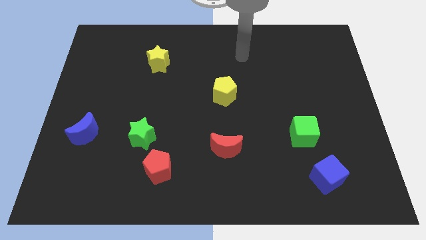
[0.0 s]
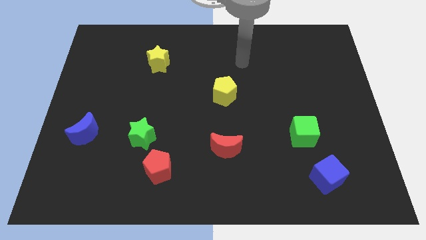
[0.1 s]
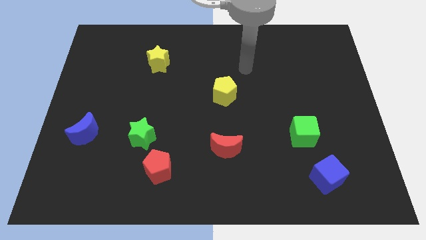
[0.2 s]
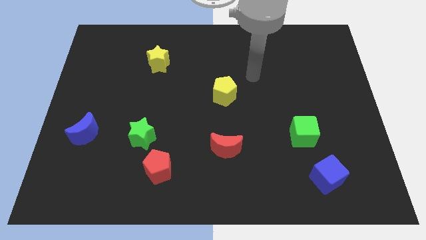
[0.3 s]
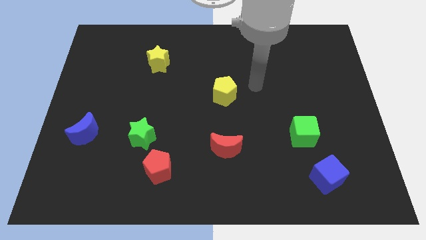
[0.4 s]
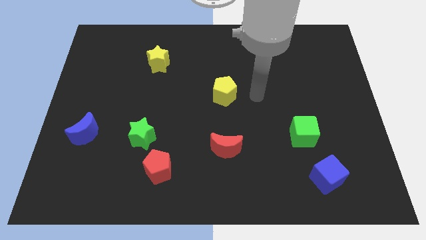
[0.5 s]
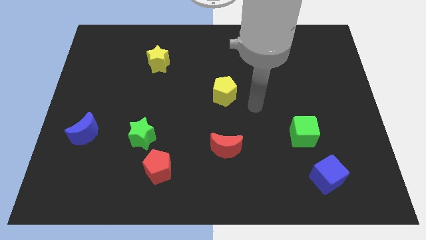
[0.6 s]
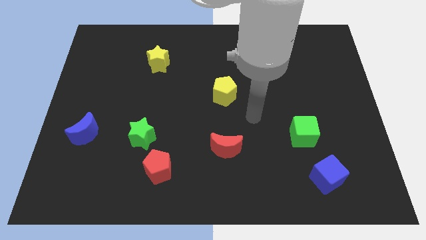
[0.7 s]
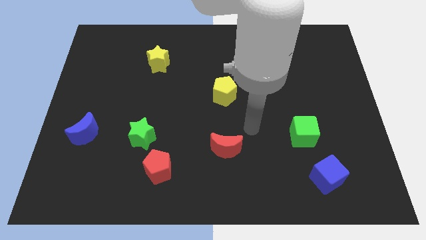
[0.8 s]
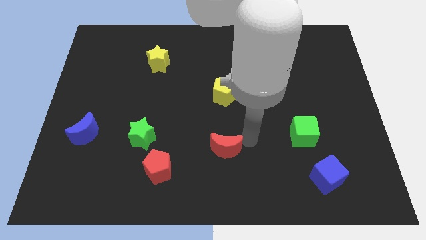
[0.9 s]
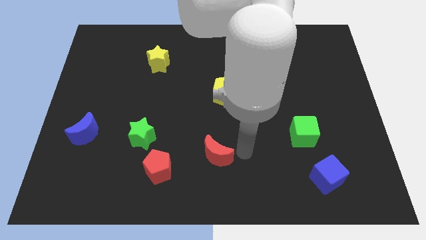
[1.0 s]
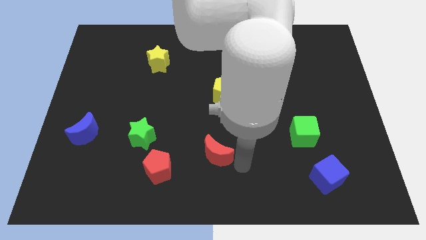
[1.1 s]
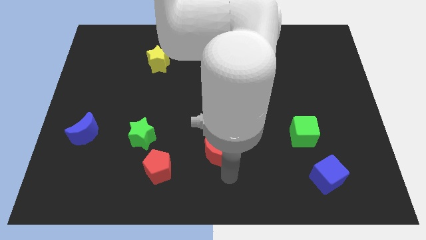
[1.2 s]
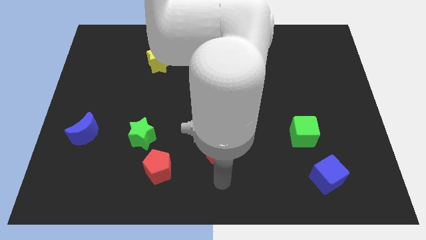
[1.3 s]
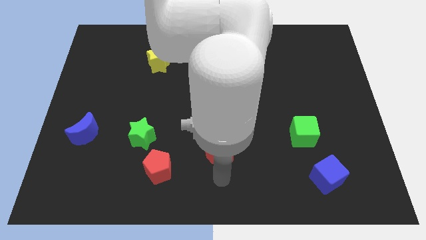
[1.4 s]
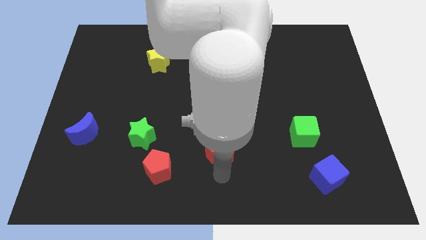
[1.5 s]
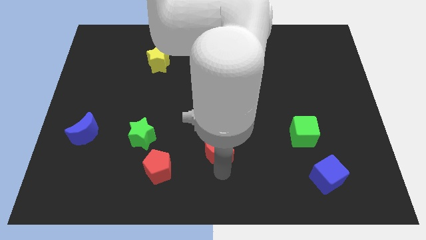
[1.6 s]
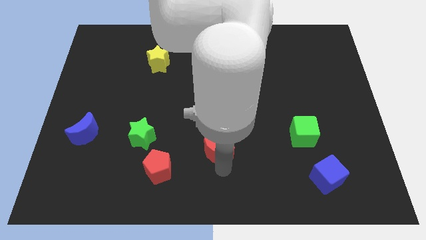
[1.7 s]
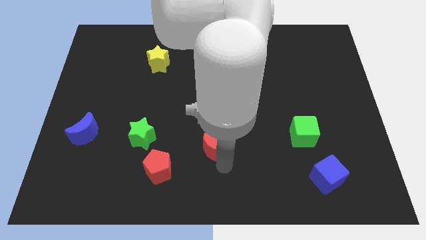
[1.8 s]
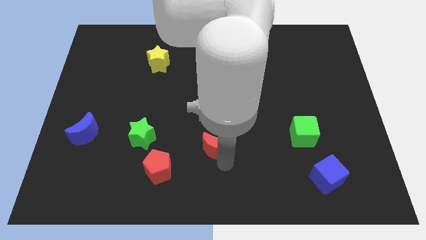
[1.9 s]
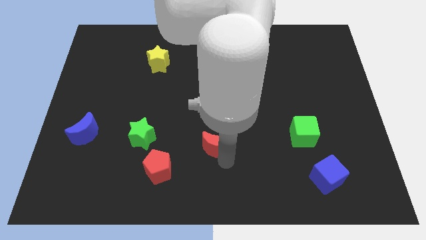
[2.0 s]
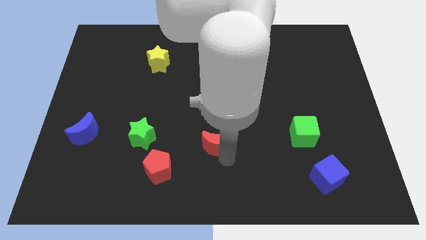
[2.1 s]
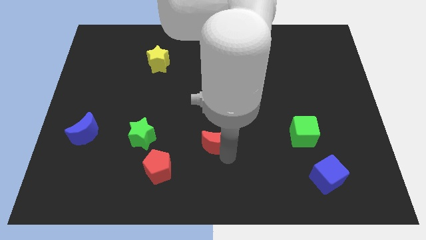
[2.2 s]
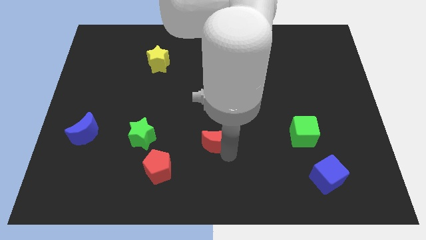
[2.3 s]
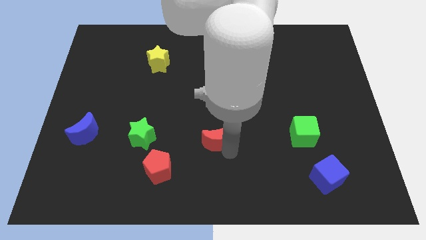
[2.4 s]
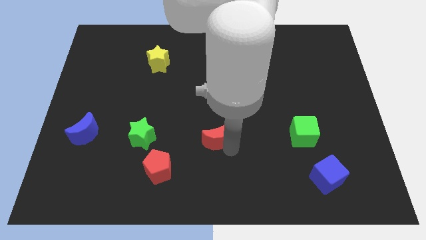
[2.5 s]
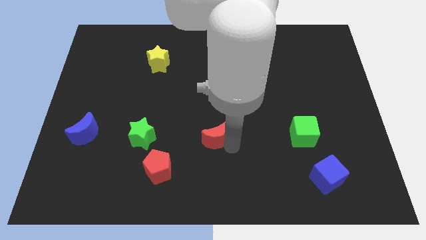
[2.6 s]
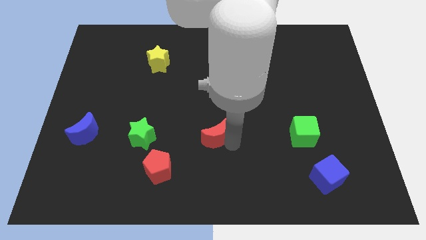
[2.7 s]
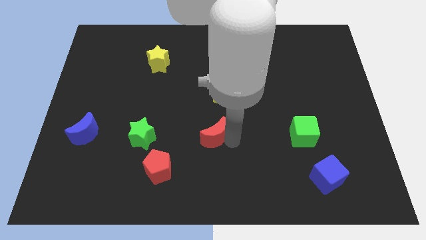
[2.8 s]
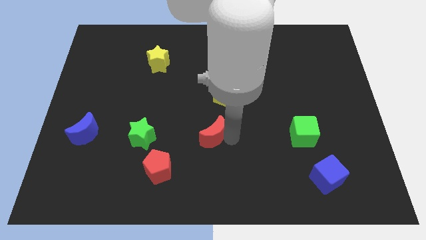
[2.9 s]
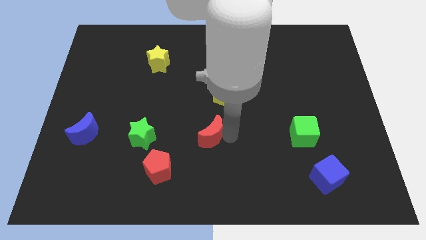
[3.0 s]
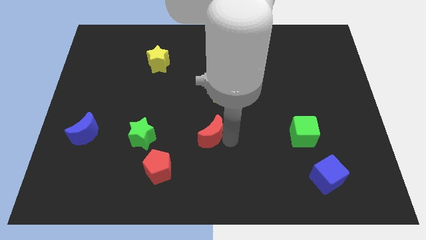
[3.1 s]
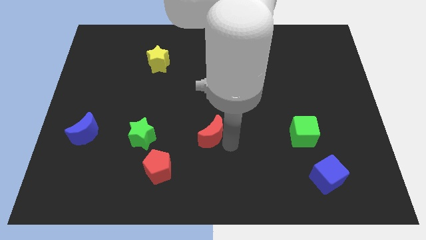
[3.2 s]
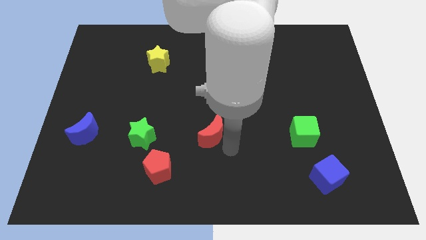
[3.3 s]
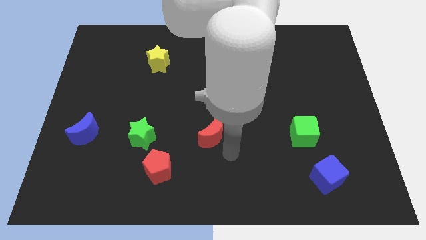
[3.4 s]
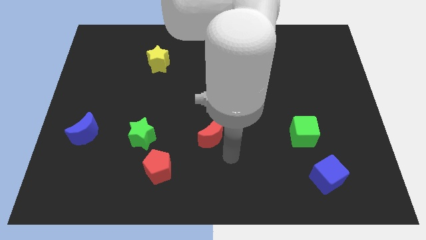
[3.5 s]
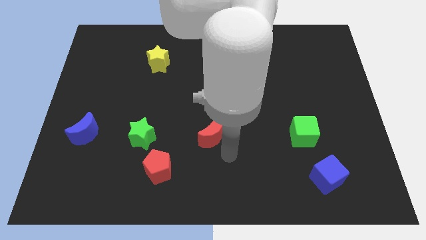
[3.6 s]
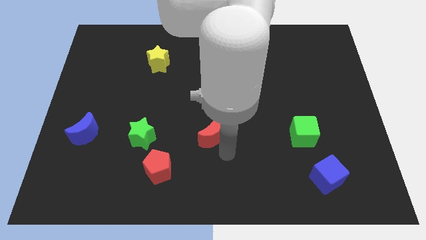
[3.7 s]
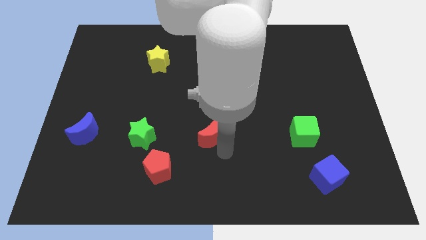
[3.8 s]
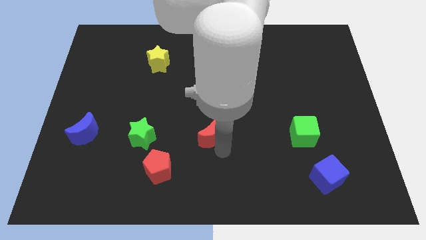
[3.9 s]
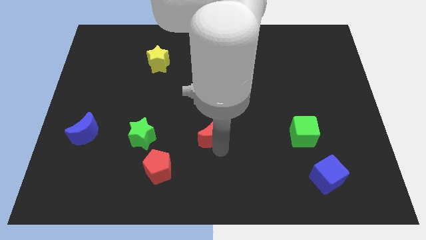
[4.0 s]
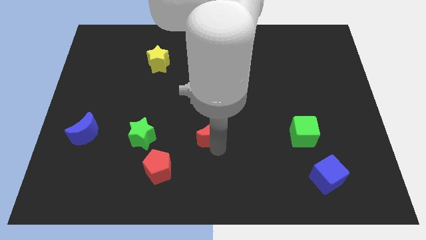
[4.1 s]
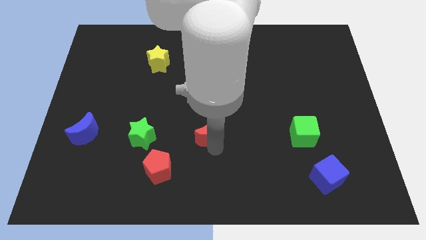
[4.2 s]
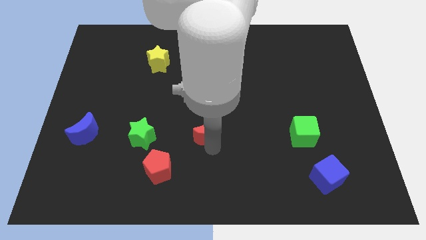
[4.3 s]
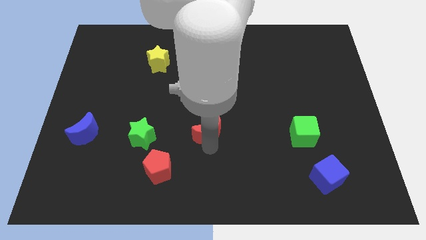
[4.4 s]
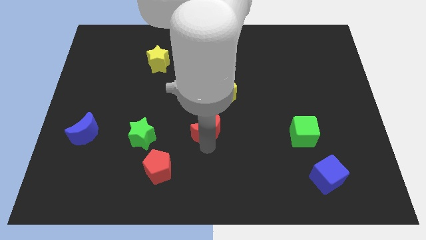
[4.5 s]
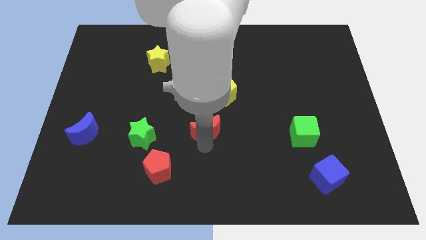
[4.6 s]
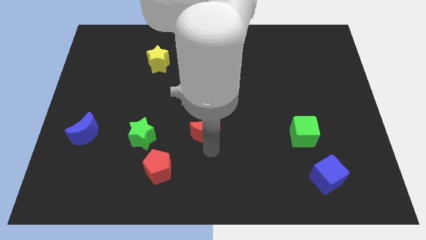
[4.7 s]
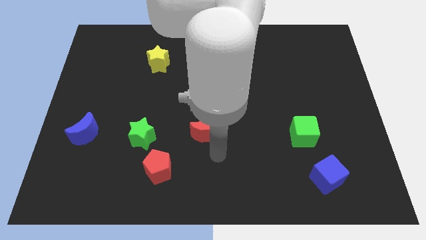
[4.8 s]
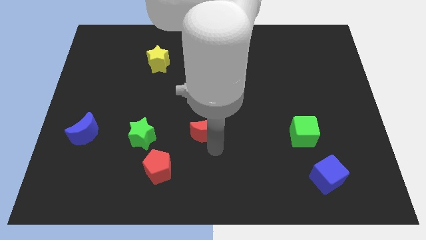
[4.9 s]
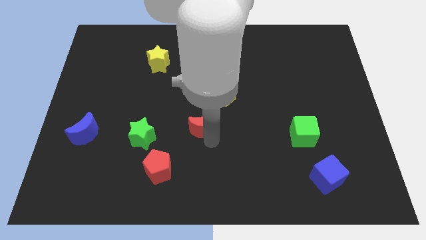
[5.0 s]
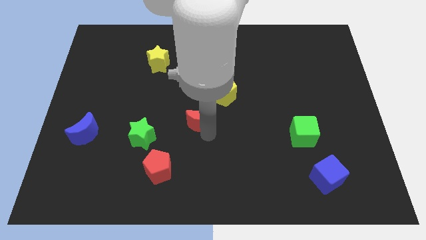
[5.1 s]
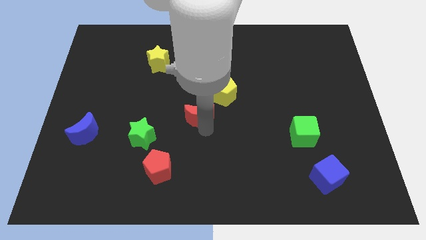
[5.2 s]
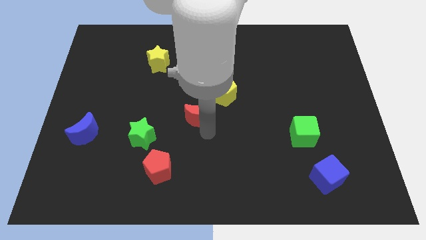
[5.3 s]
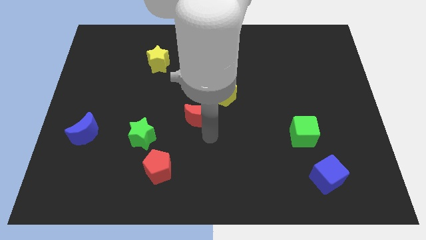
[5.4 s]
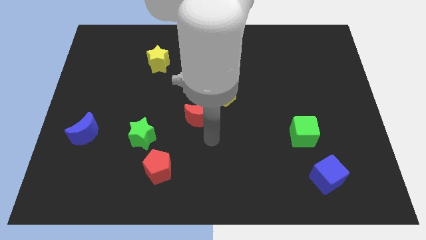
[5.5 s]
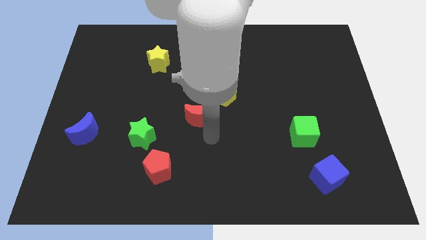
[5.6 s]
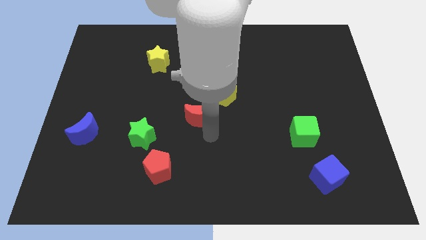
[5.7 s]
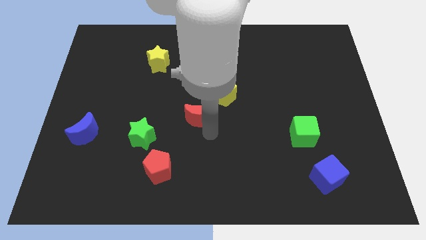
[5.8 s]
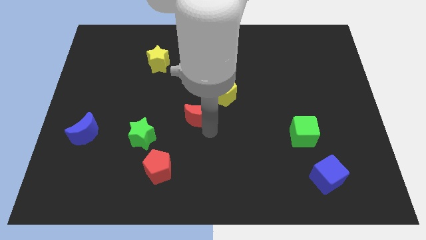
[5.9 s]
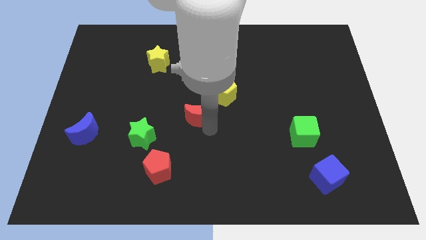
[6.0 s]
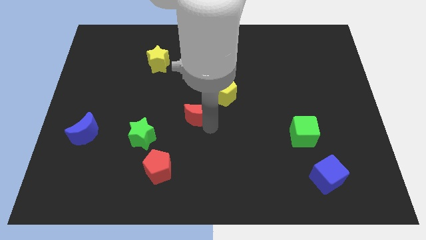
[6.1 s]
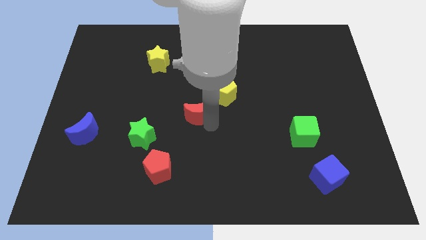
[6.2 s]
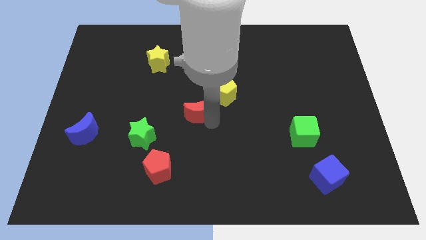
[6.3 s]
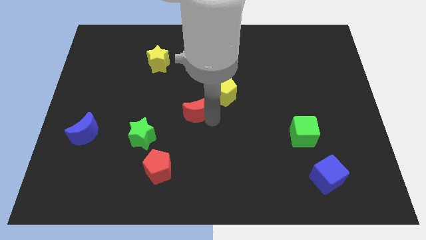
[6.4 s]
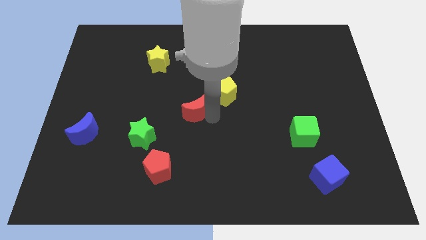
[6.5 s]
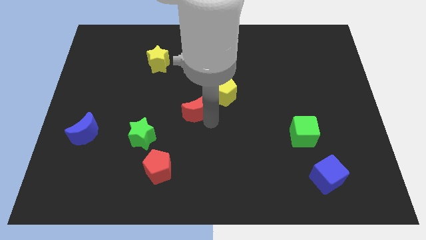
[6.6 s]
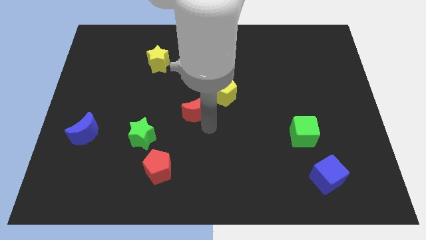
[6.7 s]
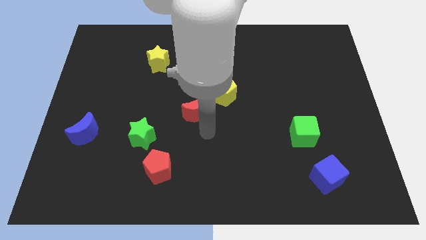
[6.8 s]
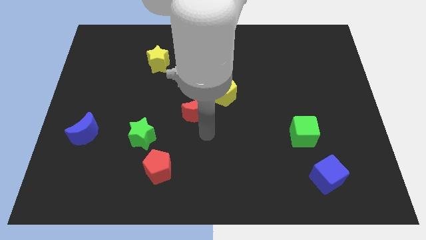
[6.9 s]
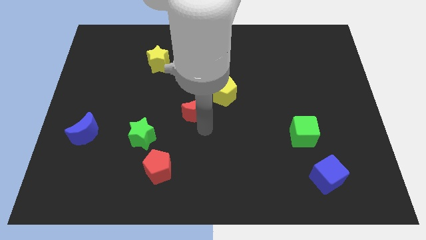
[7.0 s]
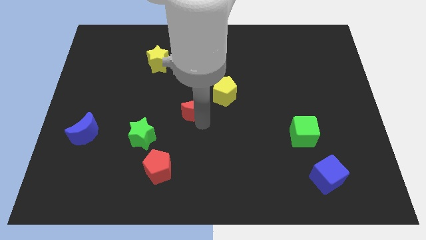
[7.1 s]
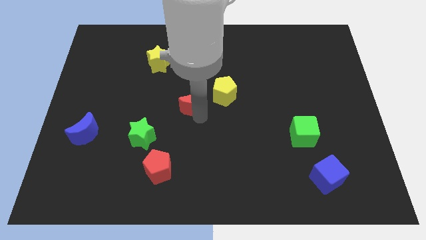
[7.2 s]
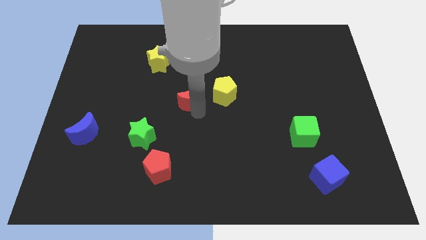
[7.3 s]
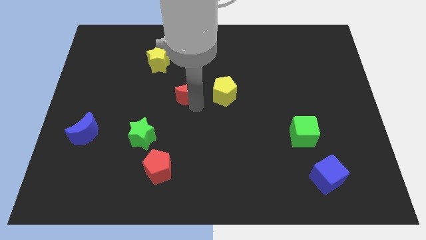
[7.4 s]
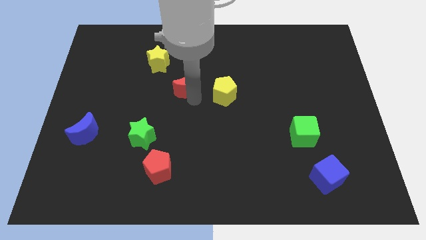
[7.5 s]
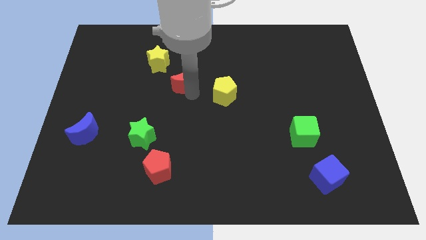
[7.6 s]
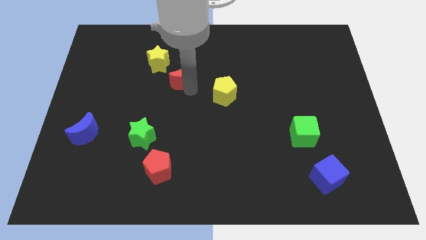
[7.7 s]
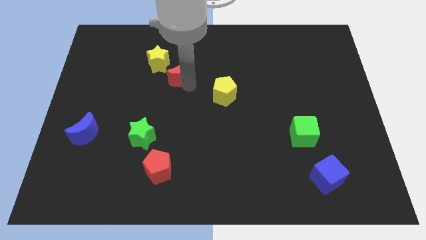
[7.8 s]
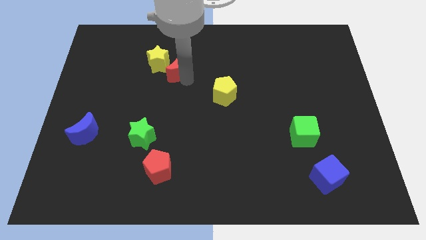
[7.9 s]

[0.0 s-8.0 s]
push the red moon to the yellow star
